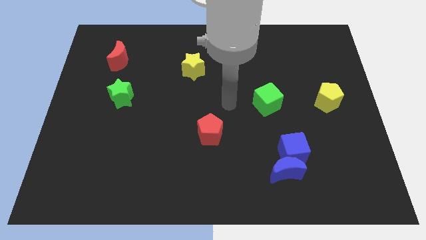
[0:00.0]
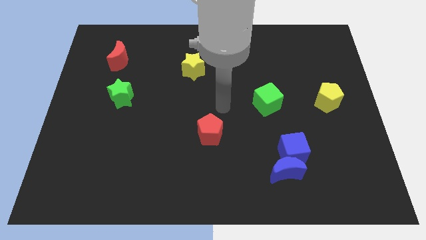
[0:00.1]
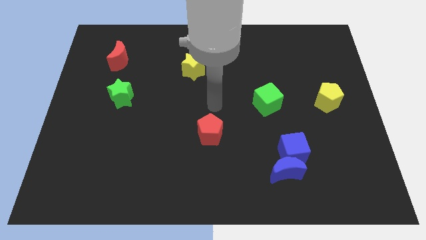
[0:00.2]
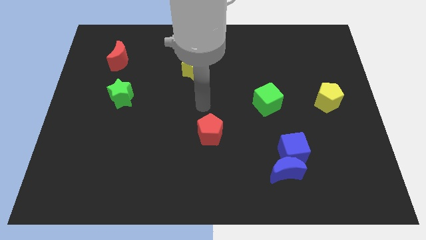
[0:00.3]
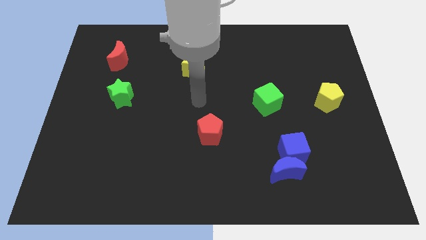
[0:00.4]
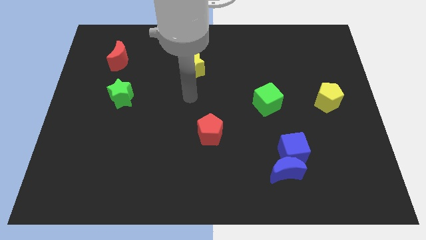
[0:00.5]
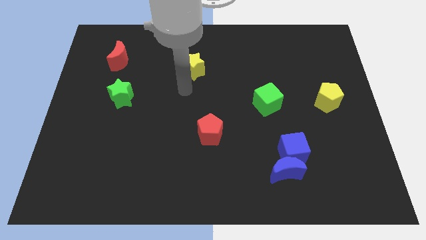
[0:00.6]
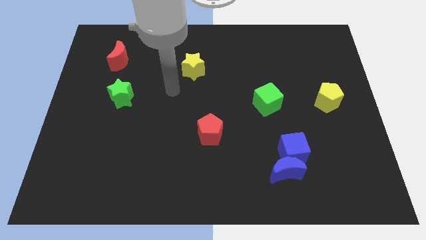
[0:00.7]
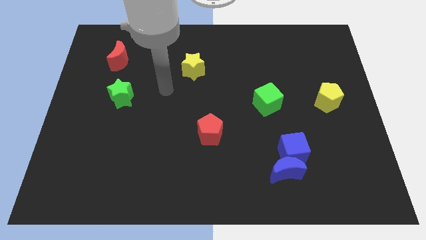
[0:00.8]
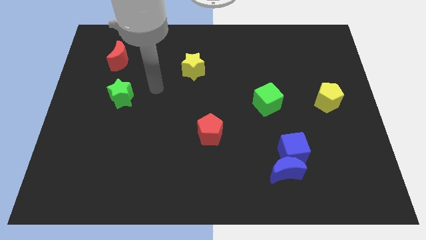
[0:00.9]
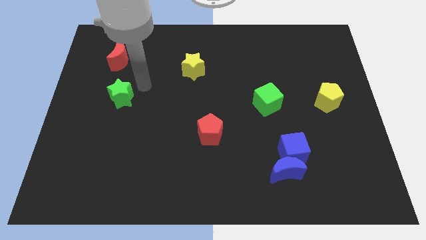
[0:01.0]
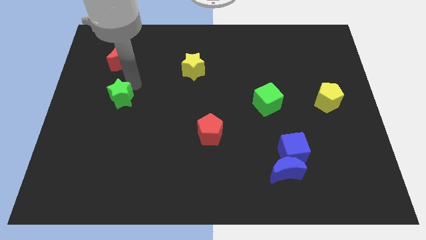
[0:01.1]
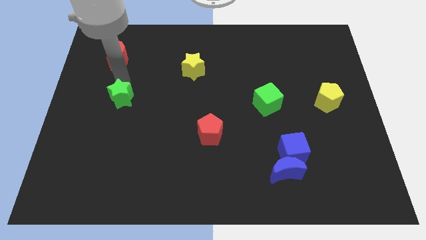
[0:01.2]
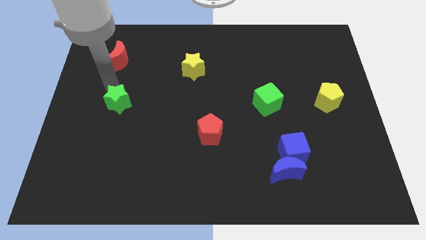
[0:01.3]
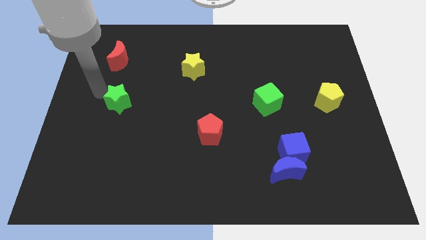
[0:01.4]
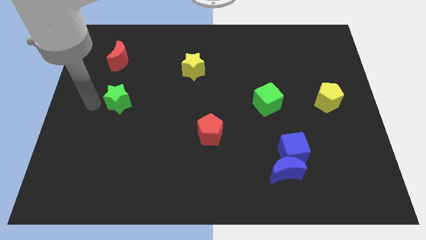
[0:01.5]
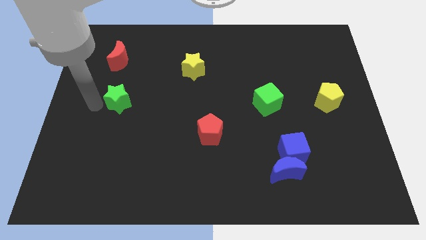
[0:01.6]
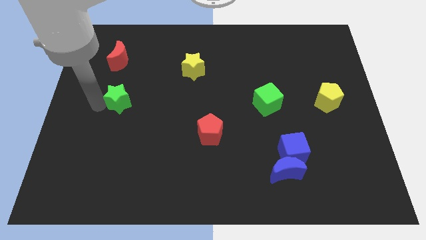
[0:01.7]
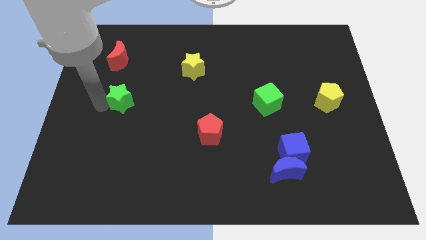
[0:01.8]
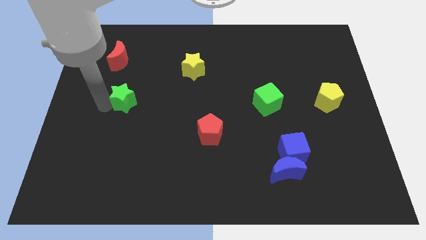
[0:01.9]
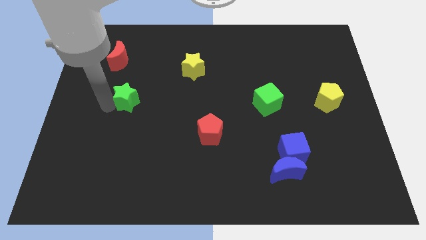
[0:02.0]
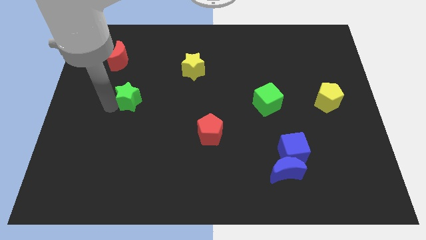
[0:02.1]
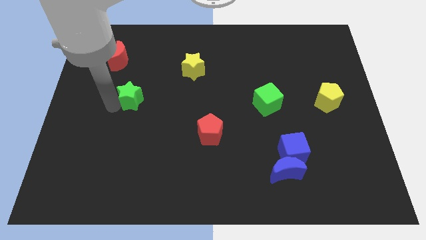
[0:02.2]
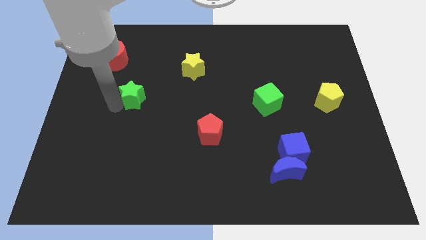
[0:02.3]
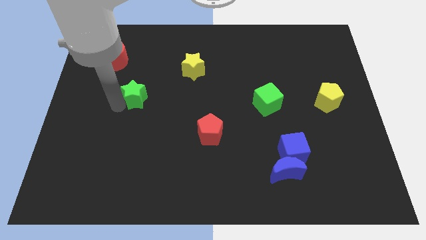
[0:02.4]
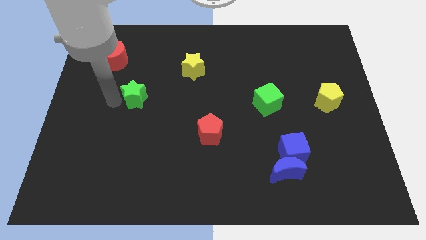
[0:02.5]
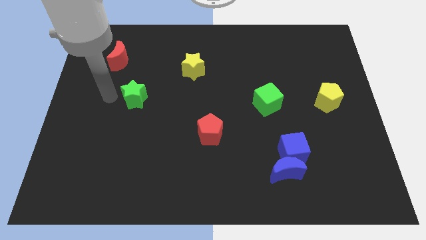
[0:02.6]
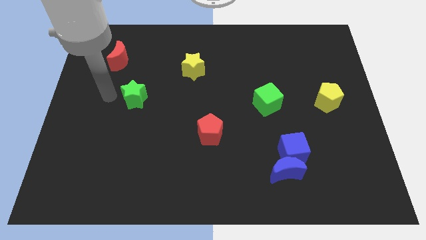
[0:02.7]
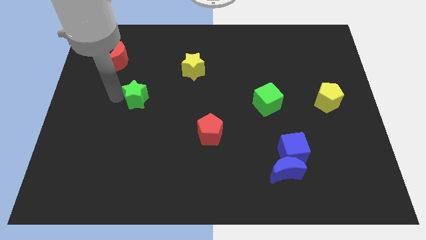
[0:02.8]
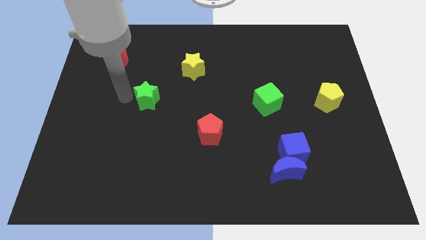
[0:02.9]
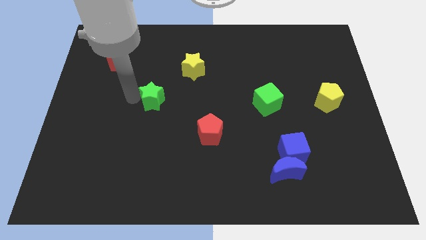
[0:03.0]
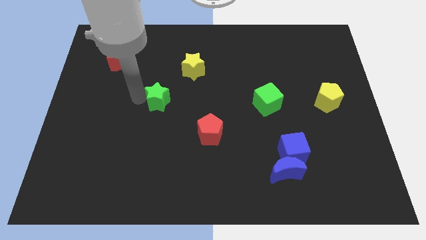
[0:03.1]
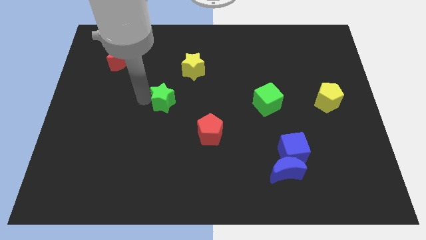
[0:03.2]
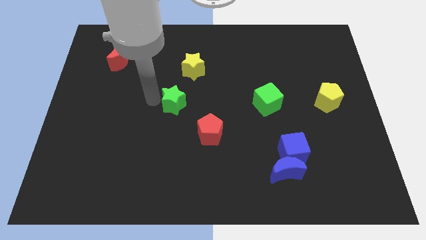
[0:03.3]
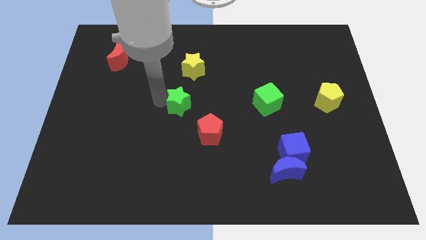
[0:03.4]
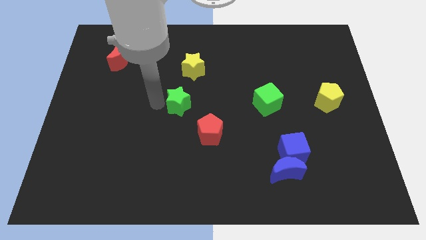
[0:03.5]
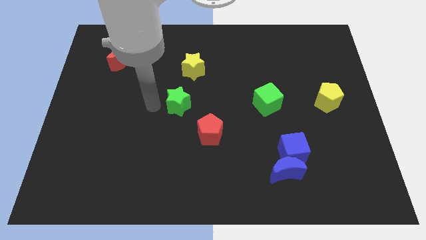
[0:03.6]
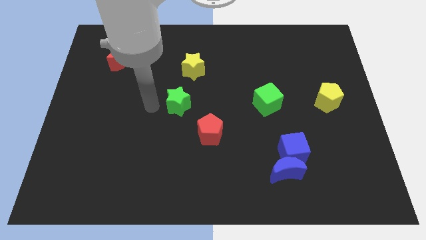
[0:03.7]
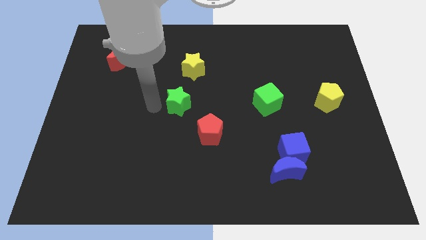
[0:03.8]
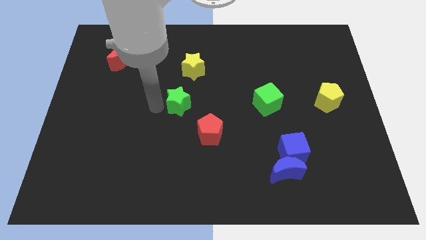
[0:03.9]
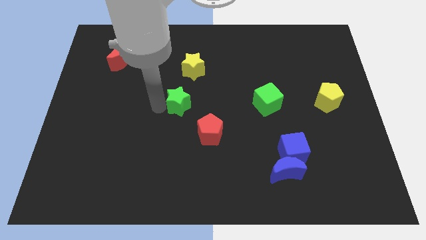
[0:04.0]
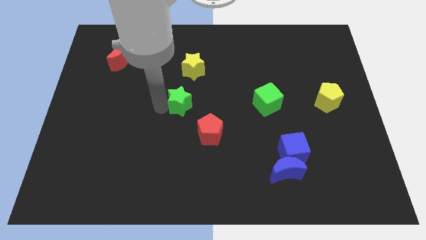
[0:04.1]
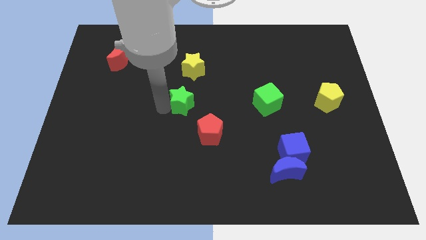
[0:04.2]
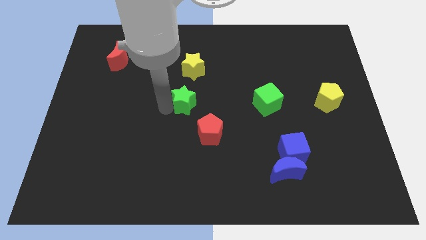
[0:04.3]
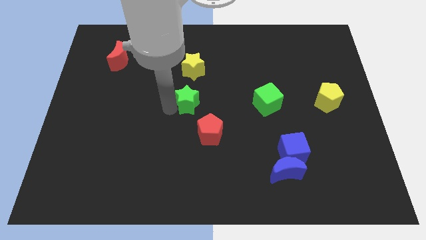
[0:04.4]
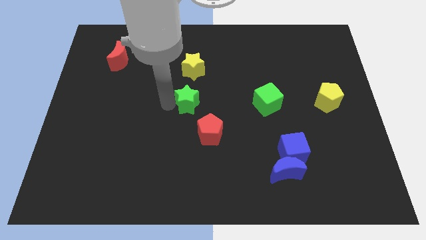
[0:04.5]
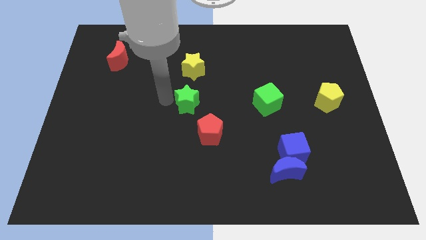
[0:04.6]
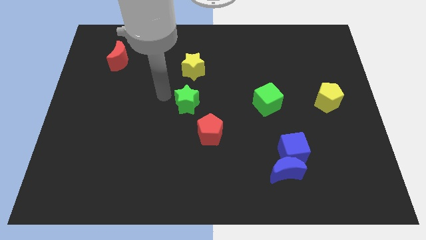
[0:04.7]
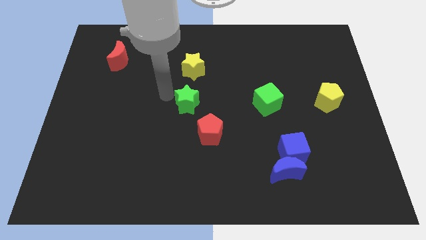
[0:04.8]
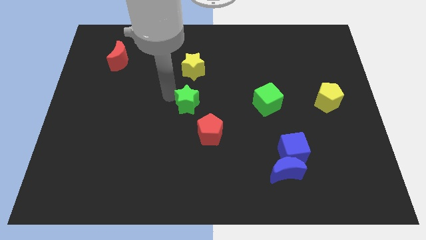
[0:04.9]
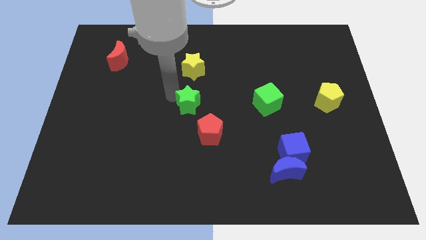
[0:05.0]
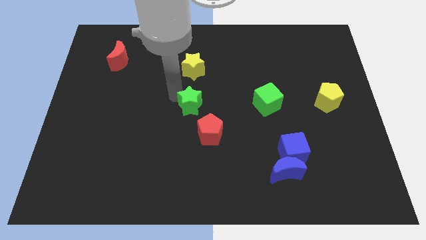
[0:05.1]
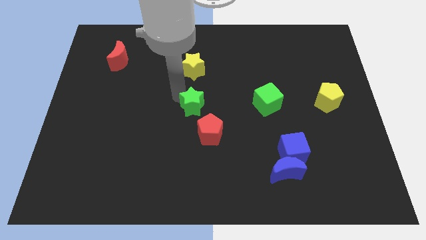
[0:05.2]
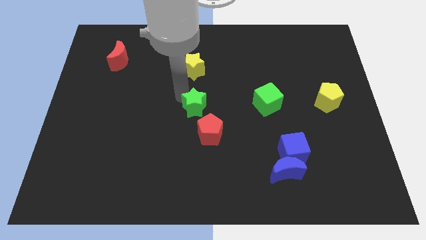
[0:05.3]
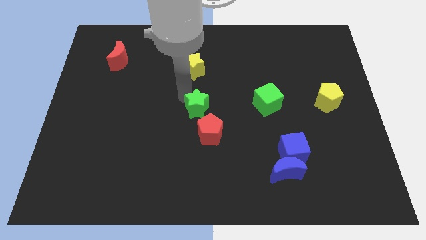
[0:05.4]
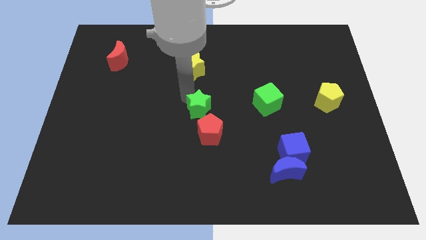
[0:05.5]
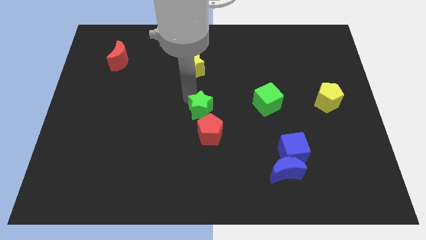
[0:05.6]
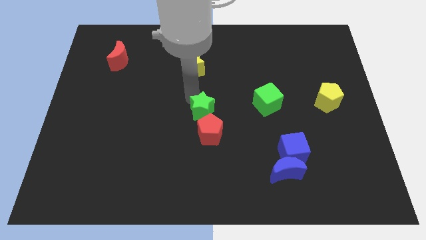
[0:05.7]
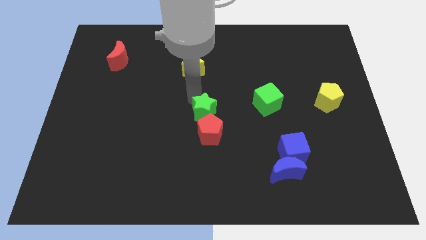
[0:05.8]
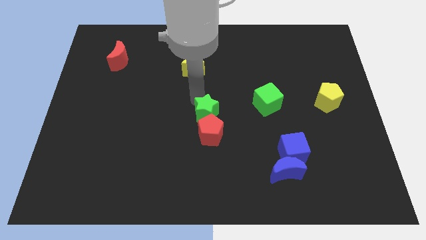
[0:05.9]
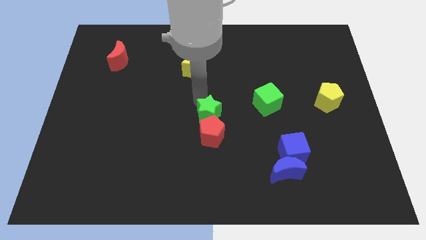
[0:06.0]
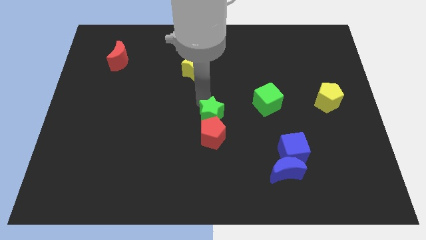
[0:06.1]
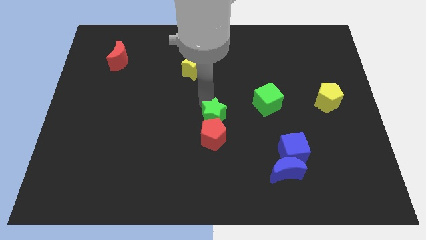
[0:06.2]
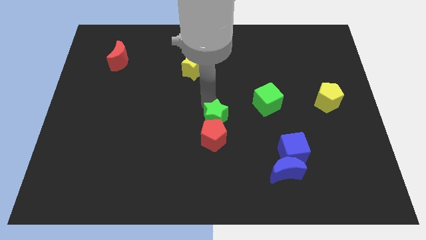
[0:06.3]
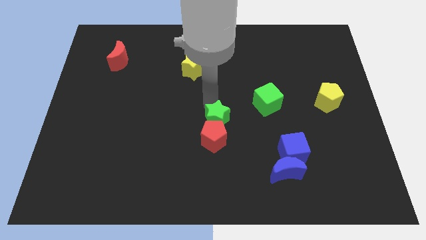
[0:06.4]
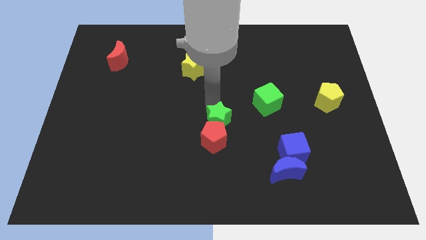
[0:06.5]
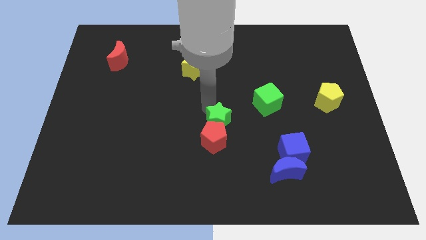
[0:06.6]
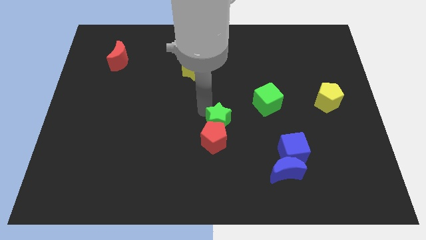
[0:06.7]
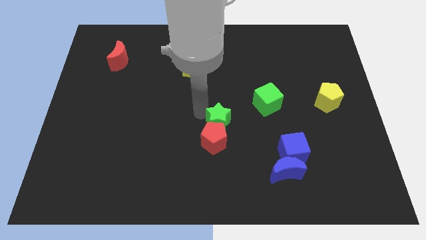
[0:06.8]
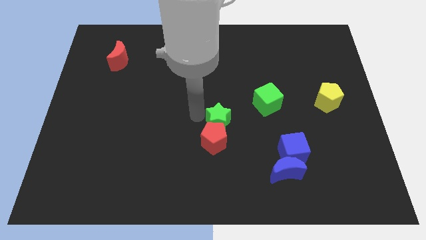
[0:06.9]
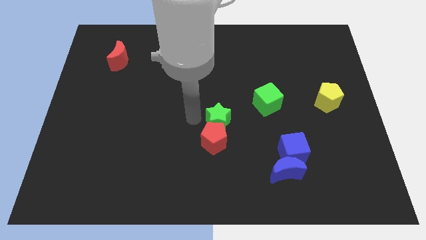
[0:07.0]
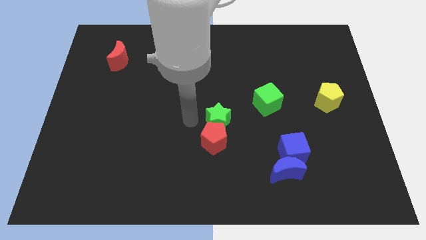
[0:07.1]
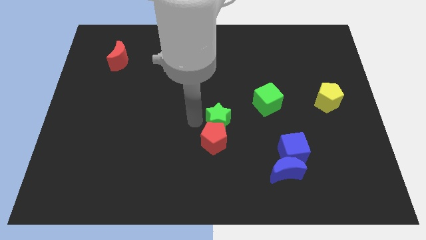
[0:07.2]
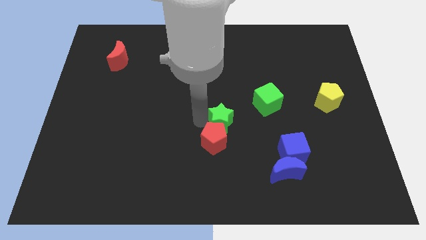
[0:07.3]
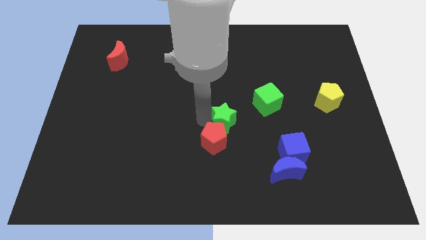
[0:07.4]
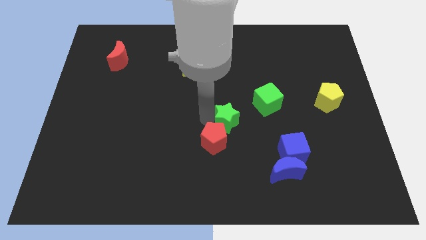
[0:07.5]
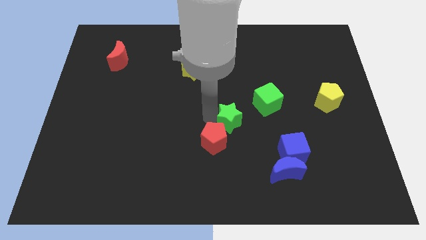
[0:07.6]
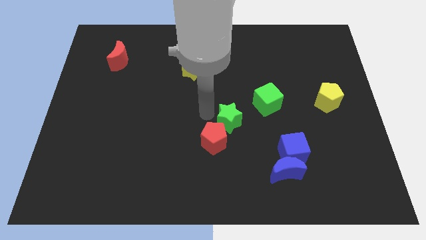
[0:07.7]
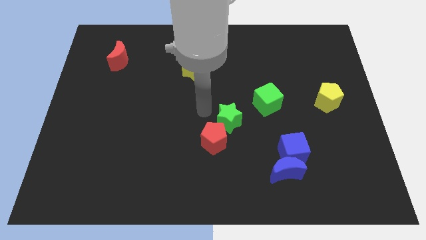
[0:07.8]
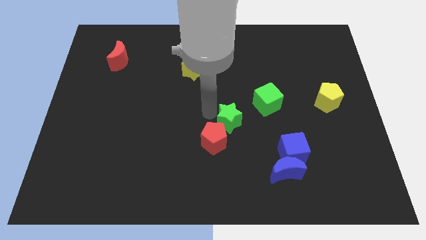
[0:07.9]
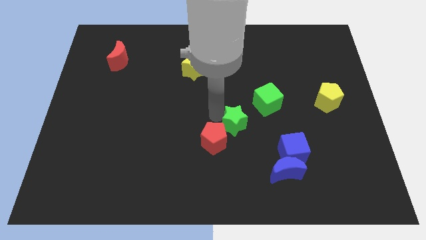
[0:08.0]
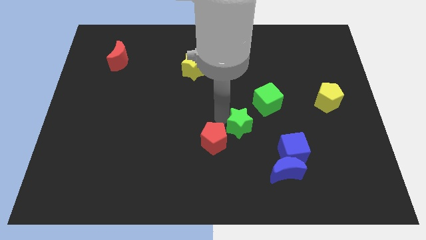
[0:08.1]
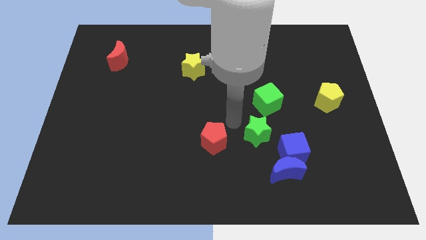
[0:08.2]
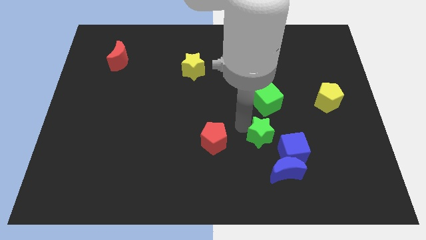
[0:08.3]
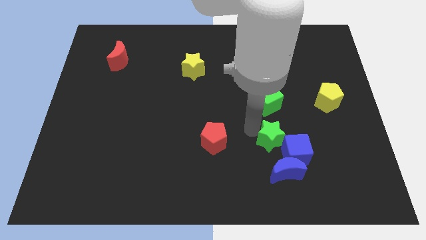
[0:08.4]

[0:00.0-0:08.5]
move the green star to the blue cube
